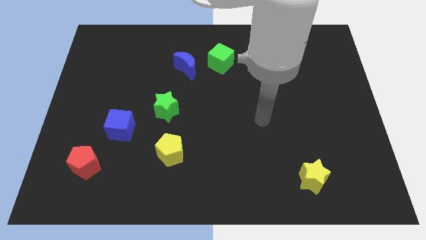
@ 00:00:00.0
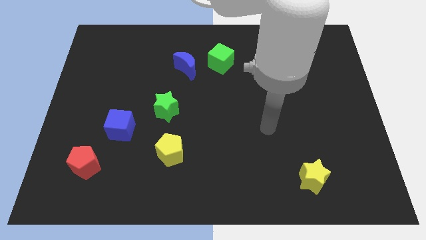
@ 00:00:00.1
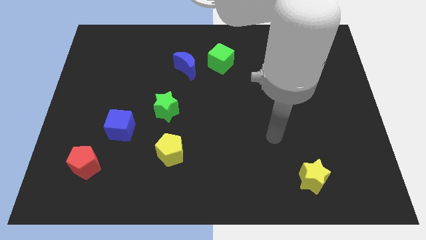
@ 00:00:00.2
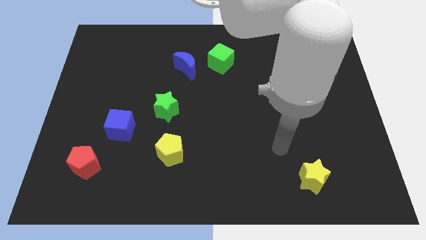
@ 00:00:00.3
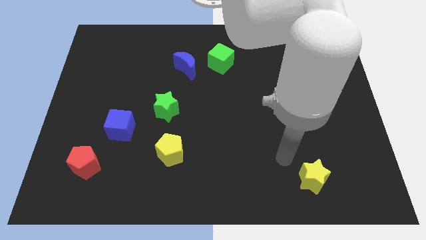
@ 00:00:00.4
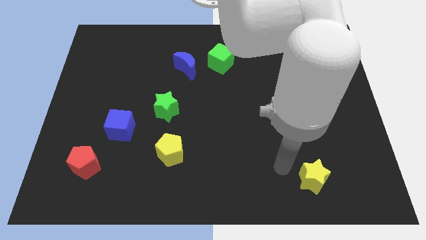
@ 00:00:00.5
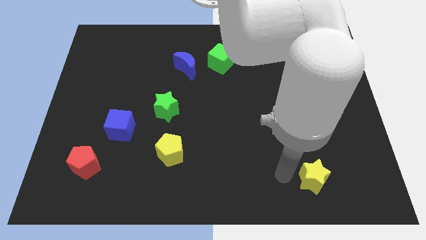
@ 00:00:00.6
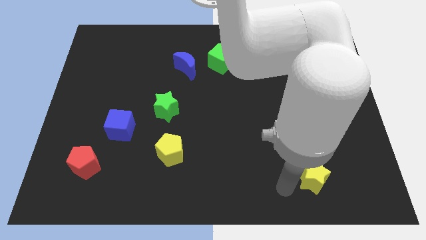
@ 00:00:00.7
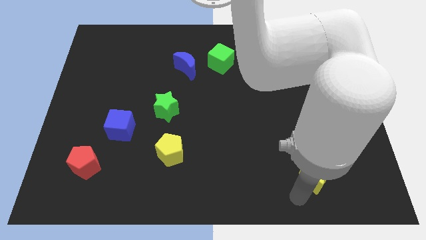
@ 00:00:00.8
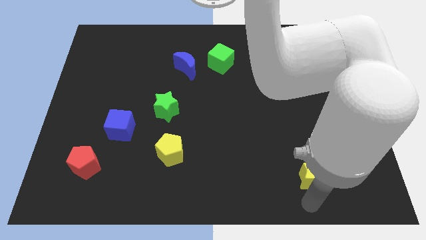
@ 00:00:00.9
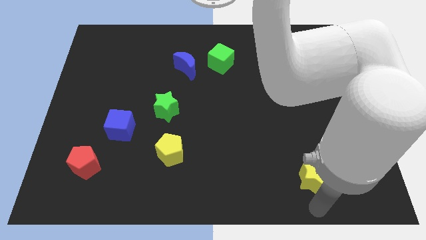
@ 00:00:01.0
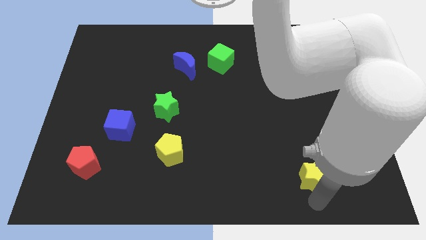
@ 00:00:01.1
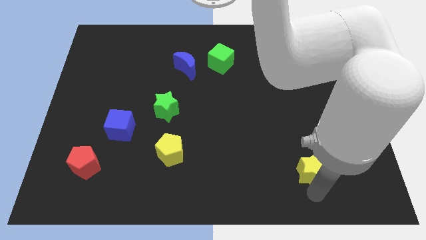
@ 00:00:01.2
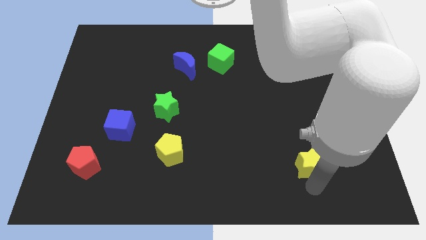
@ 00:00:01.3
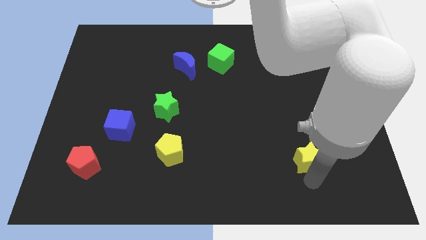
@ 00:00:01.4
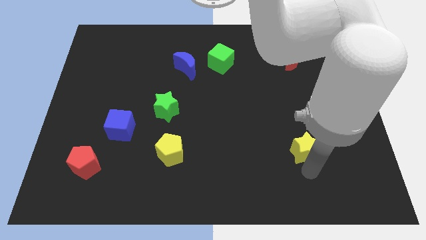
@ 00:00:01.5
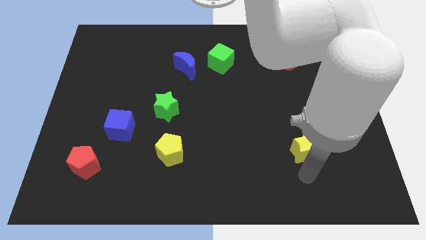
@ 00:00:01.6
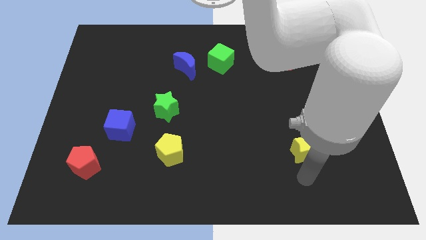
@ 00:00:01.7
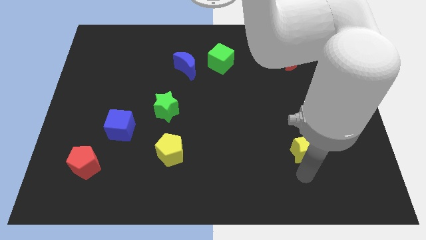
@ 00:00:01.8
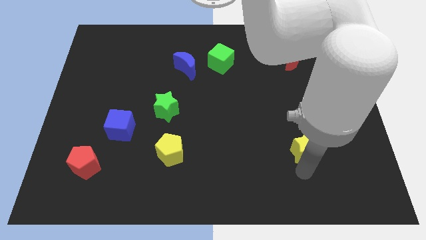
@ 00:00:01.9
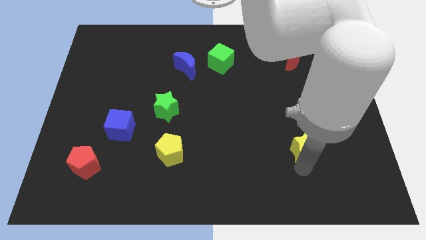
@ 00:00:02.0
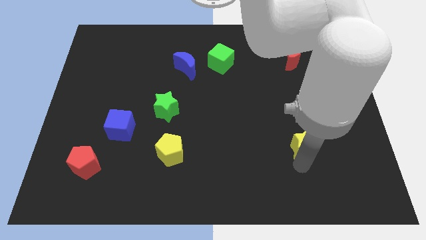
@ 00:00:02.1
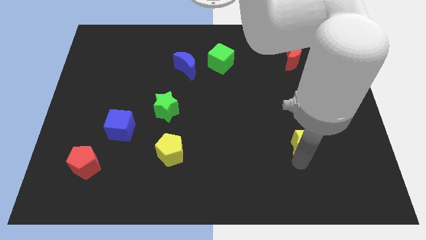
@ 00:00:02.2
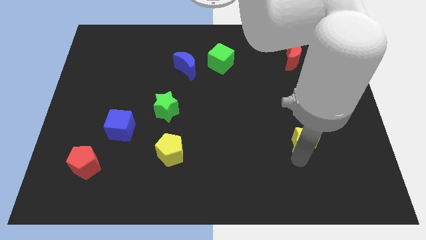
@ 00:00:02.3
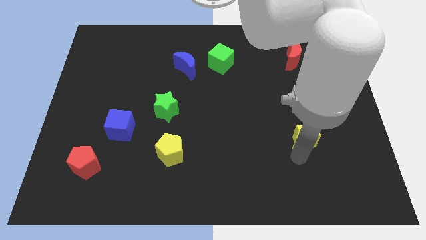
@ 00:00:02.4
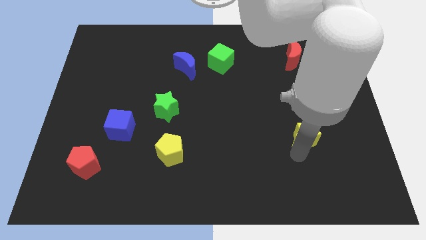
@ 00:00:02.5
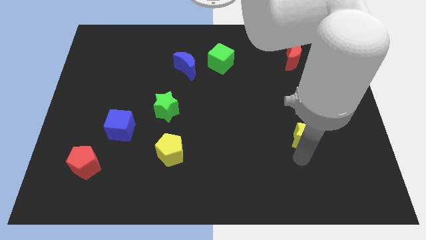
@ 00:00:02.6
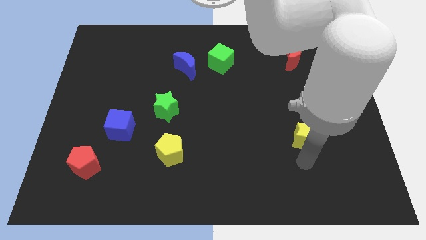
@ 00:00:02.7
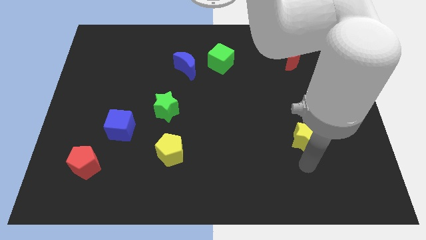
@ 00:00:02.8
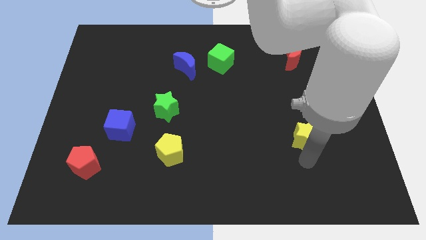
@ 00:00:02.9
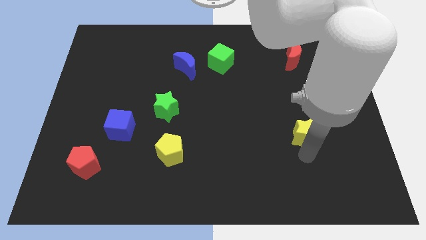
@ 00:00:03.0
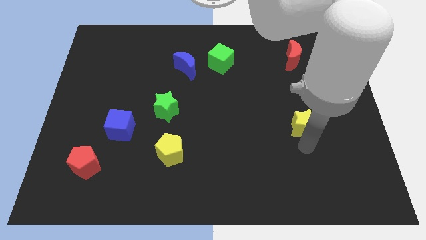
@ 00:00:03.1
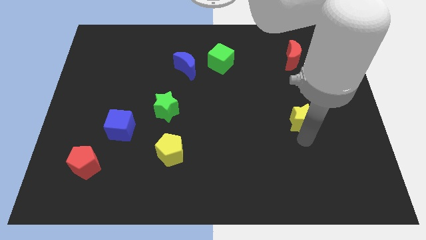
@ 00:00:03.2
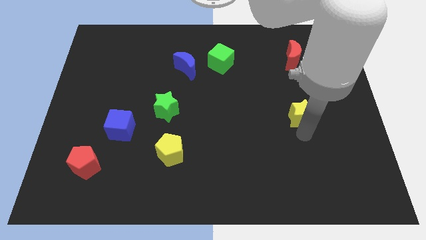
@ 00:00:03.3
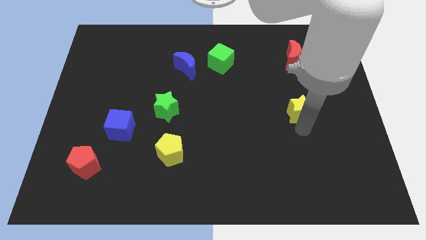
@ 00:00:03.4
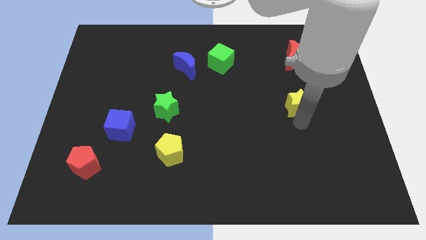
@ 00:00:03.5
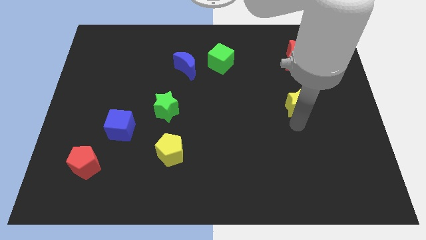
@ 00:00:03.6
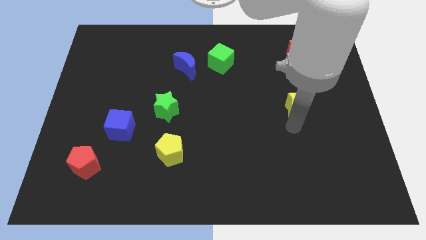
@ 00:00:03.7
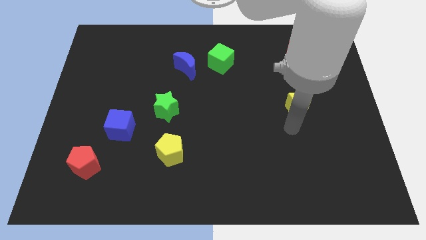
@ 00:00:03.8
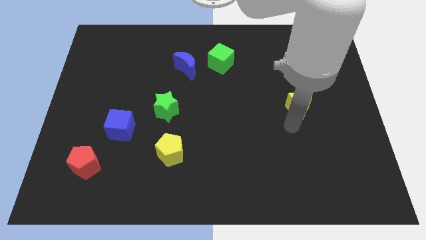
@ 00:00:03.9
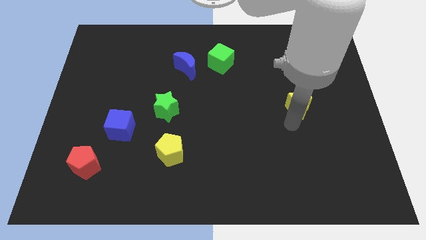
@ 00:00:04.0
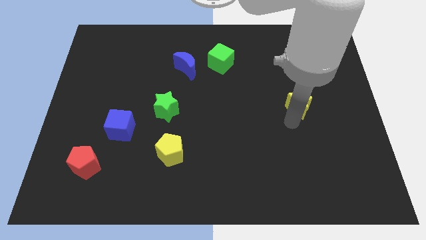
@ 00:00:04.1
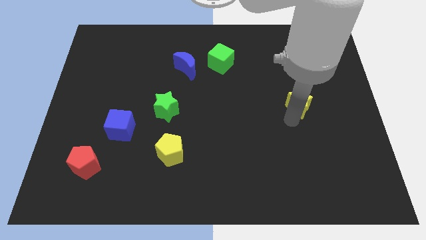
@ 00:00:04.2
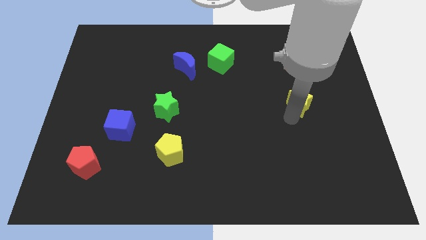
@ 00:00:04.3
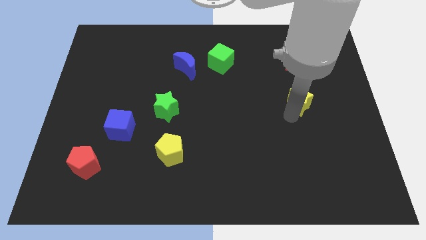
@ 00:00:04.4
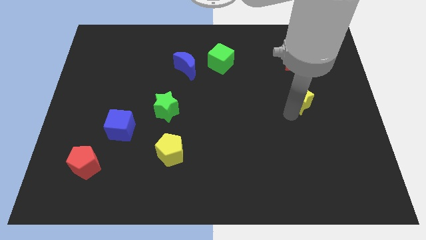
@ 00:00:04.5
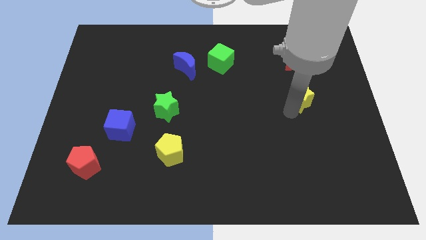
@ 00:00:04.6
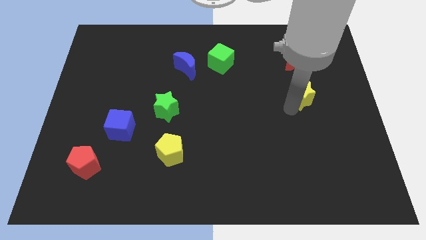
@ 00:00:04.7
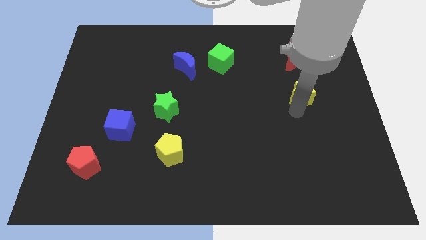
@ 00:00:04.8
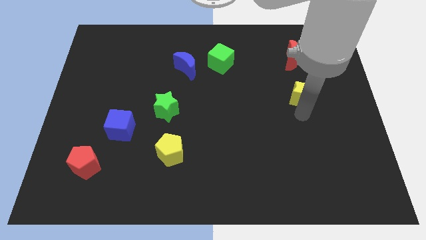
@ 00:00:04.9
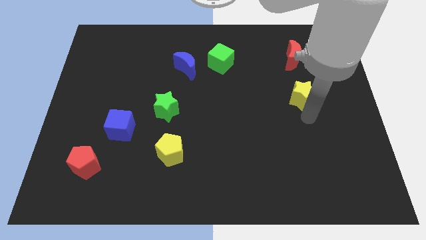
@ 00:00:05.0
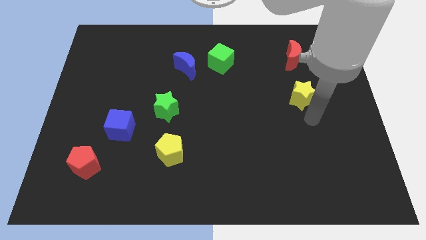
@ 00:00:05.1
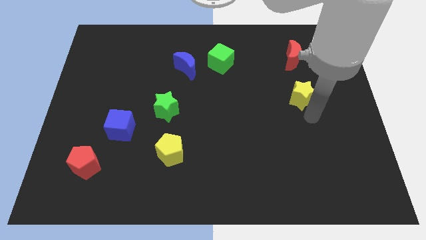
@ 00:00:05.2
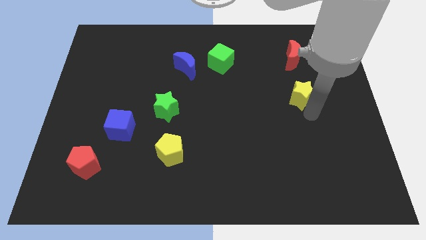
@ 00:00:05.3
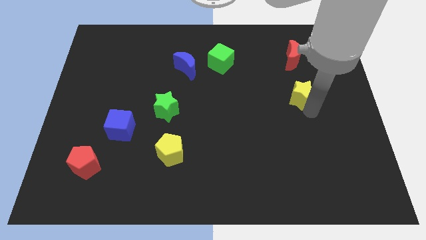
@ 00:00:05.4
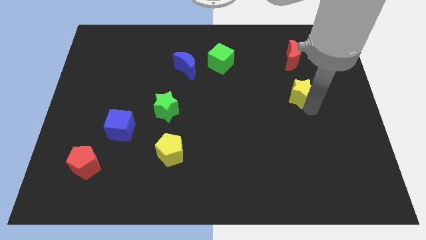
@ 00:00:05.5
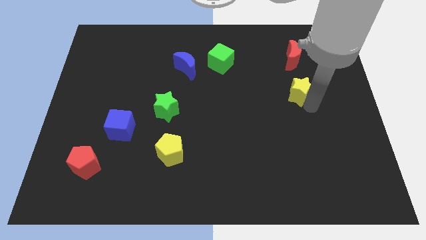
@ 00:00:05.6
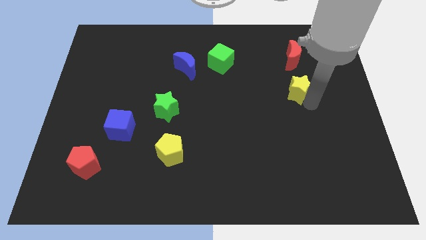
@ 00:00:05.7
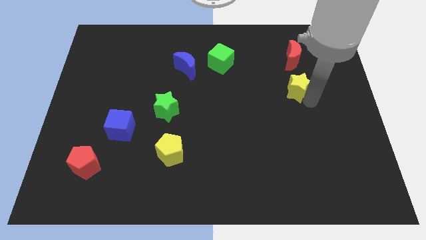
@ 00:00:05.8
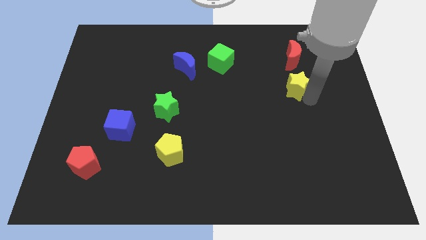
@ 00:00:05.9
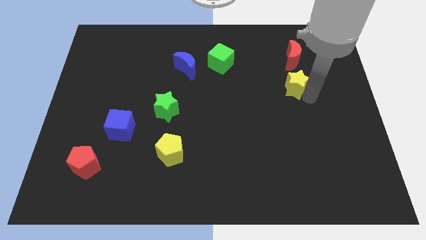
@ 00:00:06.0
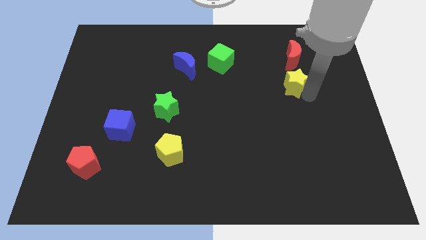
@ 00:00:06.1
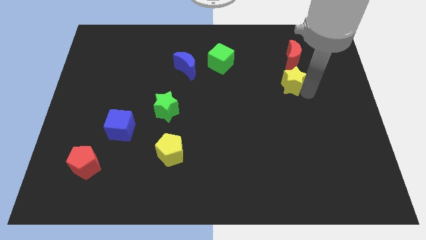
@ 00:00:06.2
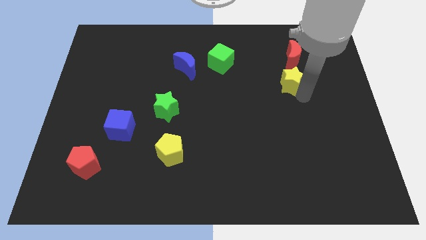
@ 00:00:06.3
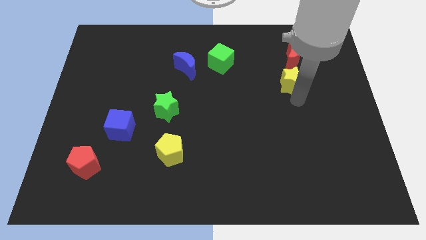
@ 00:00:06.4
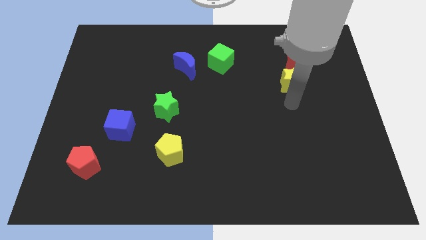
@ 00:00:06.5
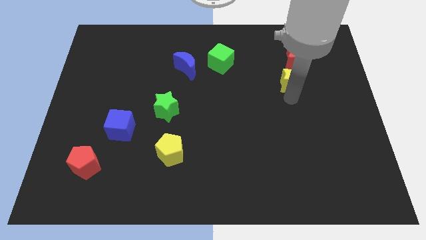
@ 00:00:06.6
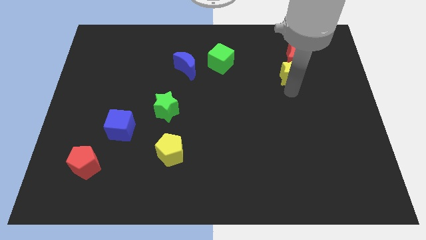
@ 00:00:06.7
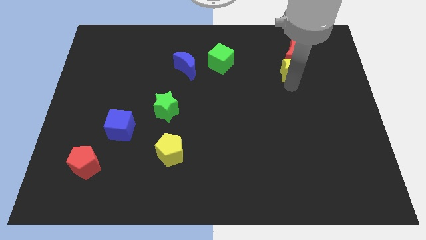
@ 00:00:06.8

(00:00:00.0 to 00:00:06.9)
move the yellow star towards the red moon

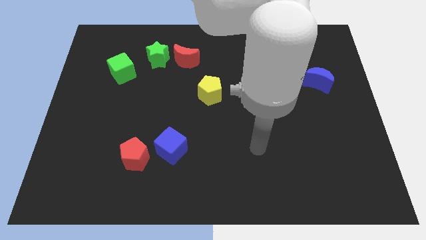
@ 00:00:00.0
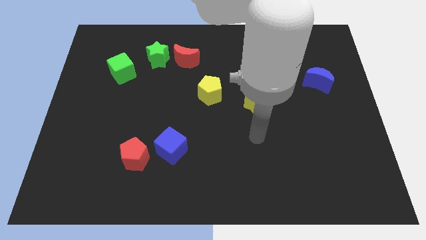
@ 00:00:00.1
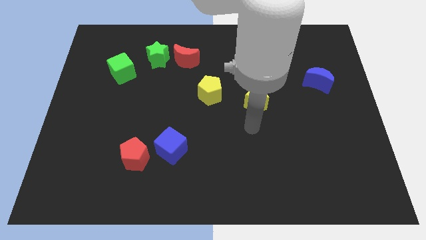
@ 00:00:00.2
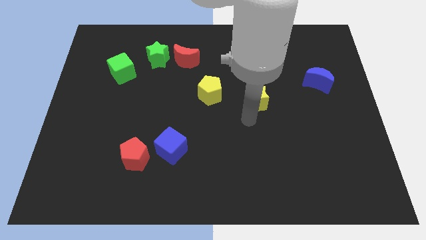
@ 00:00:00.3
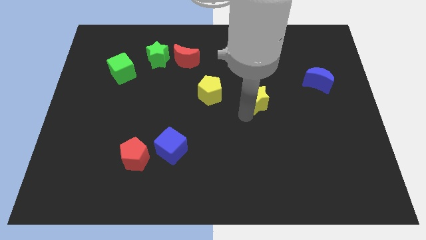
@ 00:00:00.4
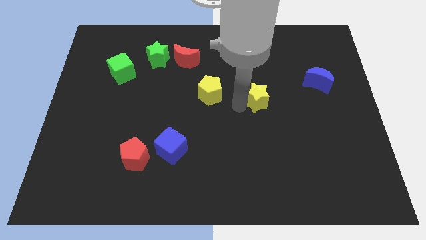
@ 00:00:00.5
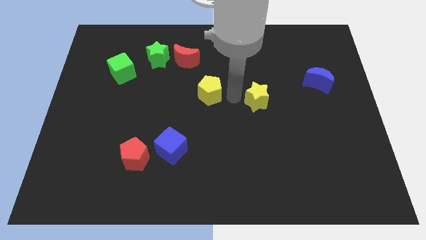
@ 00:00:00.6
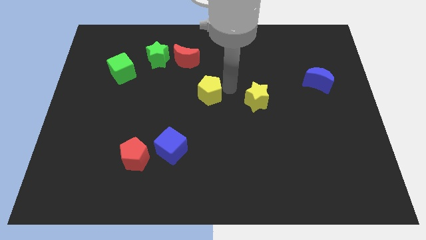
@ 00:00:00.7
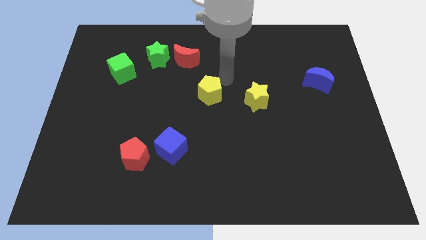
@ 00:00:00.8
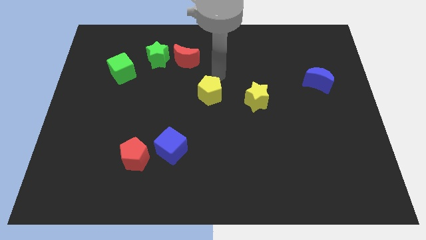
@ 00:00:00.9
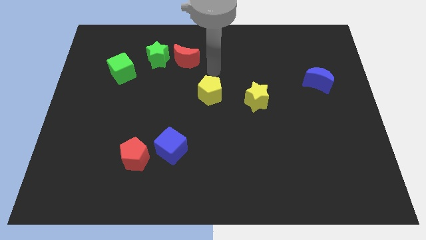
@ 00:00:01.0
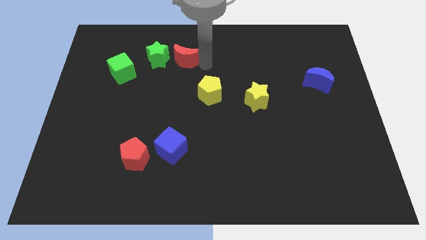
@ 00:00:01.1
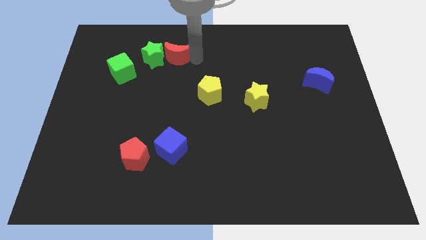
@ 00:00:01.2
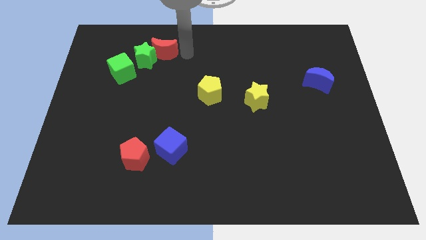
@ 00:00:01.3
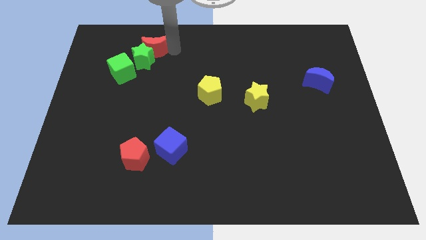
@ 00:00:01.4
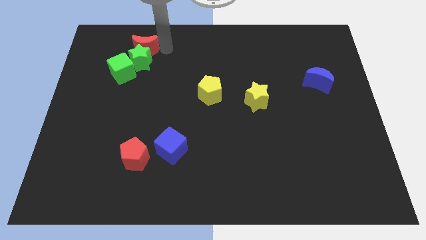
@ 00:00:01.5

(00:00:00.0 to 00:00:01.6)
slide the green star towards the green cube
